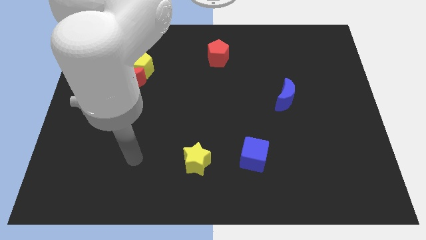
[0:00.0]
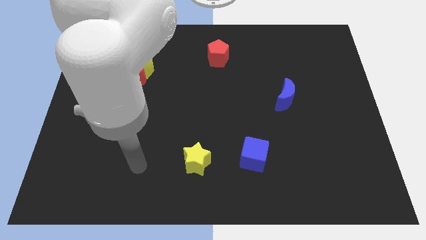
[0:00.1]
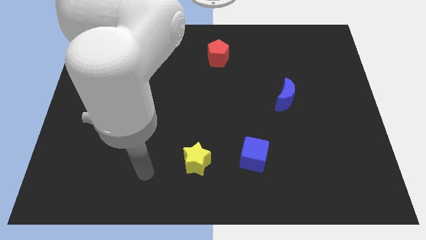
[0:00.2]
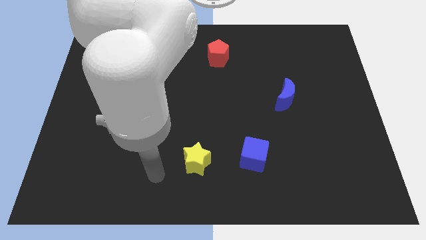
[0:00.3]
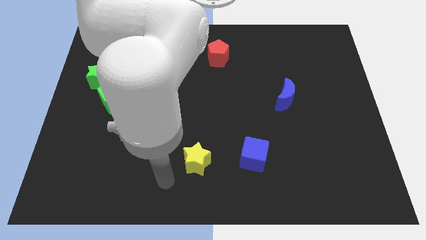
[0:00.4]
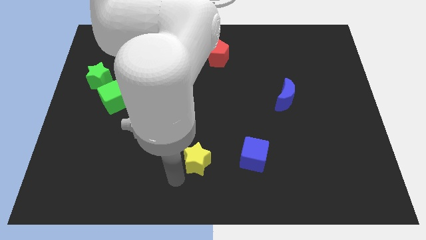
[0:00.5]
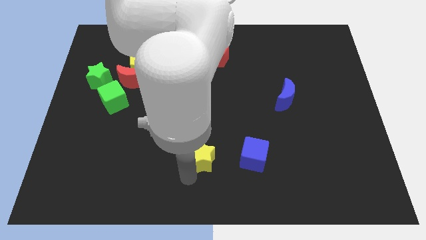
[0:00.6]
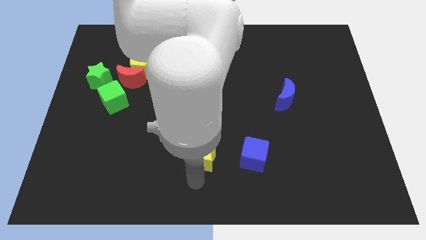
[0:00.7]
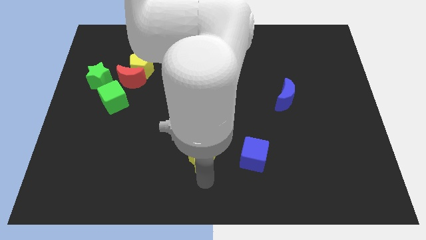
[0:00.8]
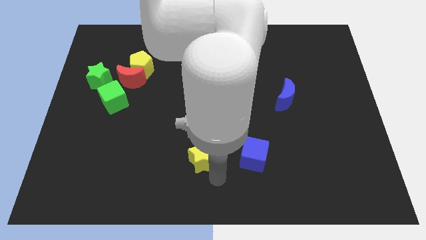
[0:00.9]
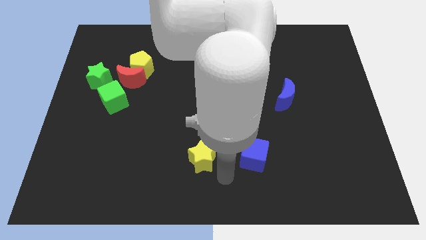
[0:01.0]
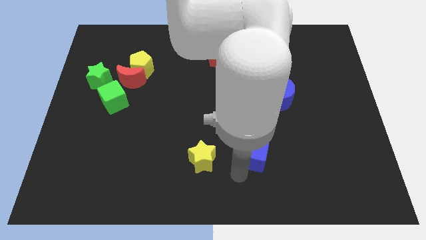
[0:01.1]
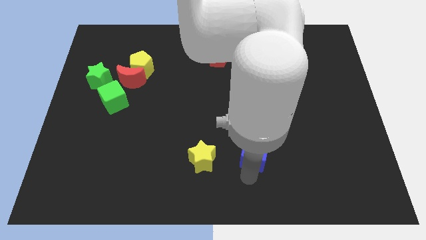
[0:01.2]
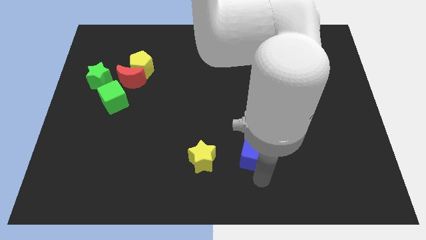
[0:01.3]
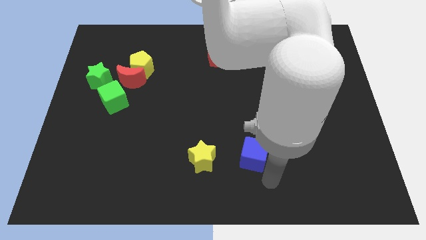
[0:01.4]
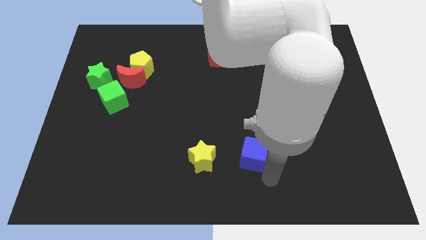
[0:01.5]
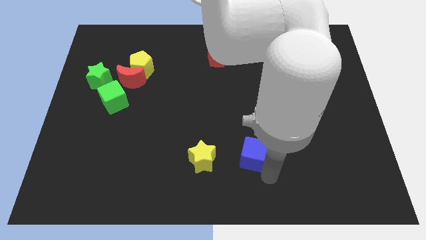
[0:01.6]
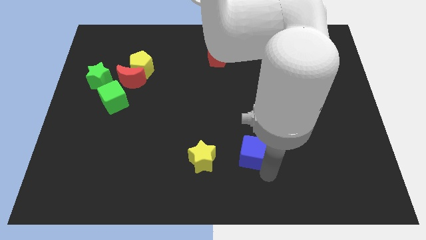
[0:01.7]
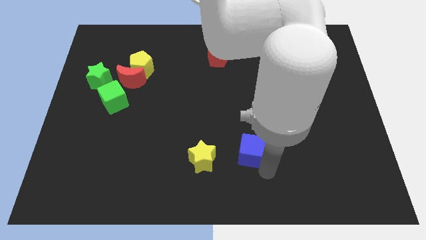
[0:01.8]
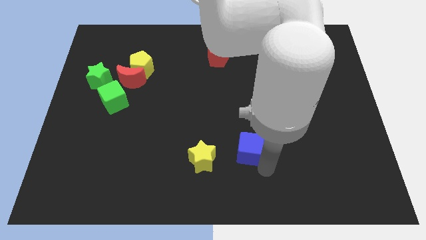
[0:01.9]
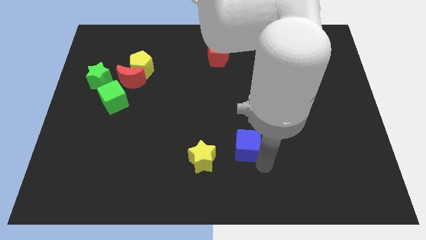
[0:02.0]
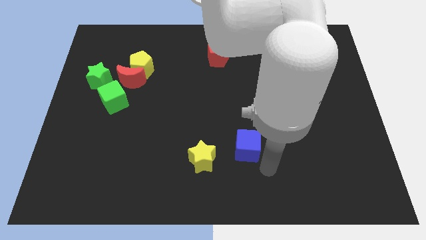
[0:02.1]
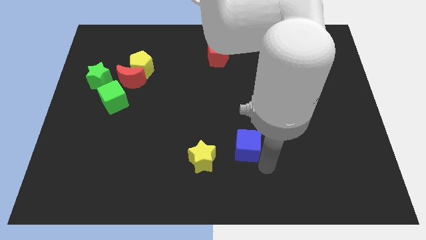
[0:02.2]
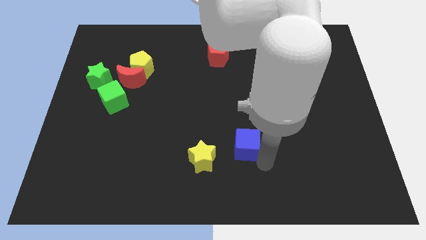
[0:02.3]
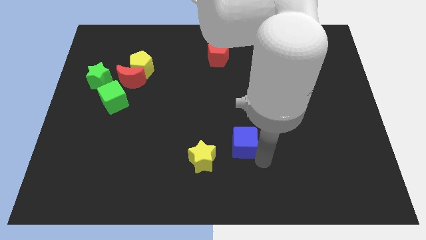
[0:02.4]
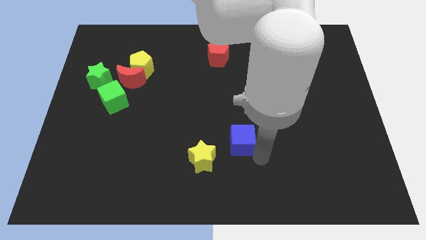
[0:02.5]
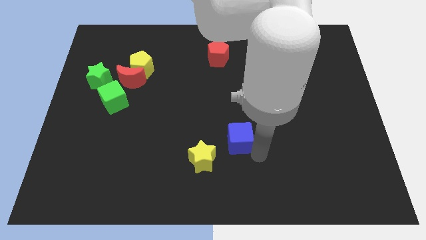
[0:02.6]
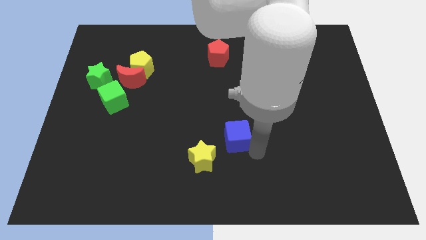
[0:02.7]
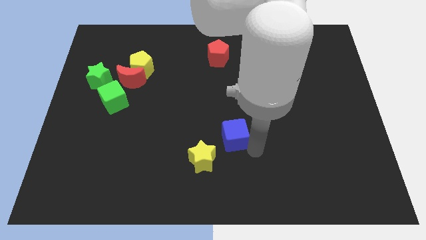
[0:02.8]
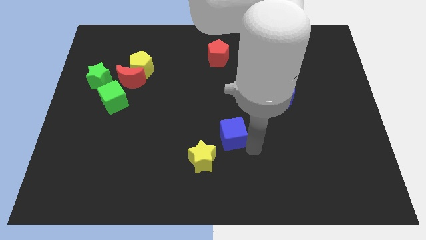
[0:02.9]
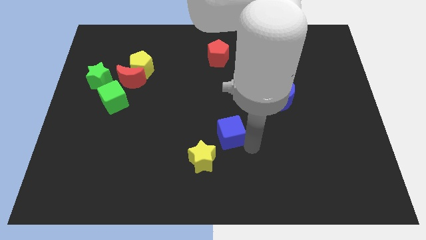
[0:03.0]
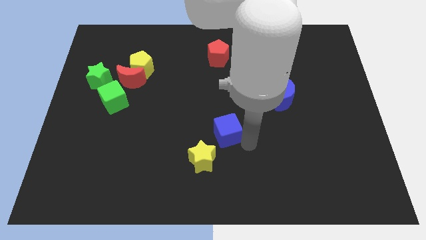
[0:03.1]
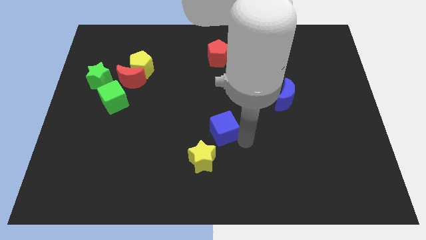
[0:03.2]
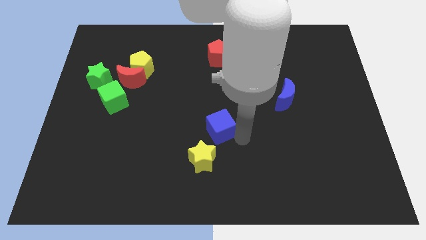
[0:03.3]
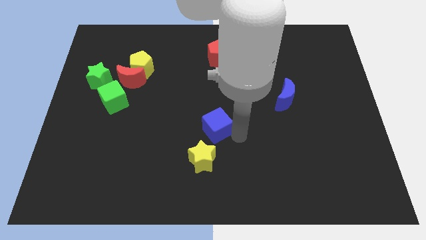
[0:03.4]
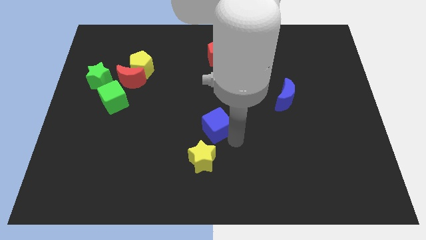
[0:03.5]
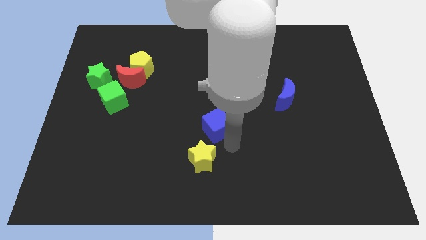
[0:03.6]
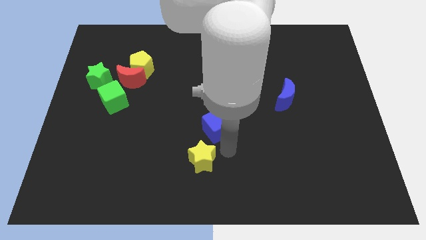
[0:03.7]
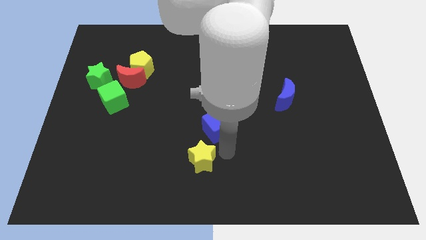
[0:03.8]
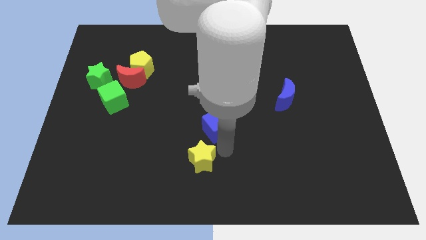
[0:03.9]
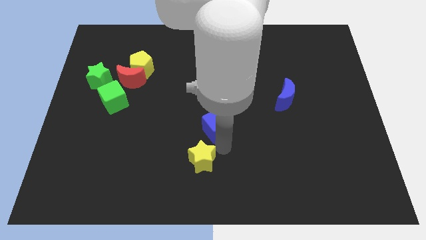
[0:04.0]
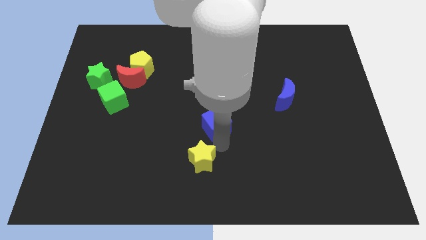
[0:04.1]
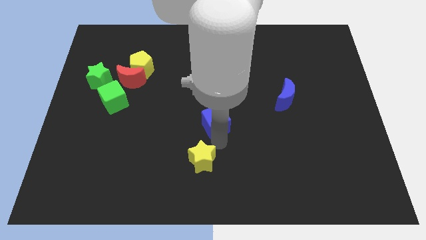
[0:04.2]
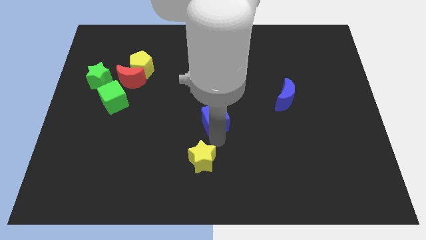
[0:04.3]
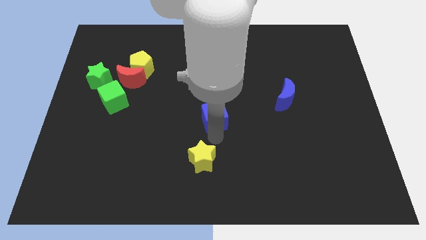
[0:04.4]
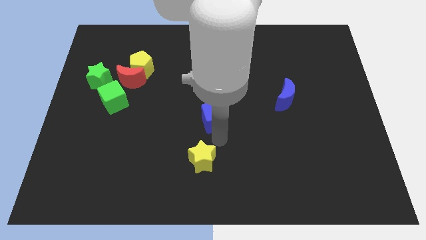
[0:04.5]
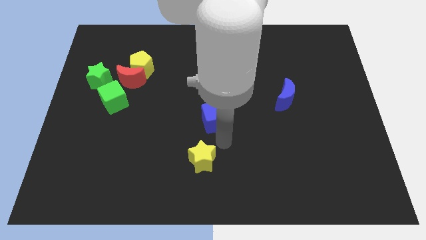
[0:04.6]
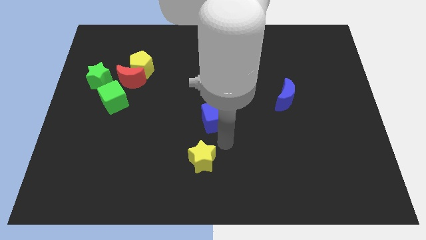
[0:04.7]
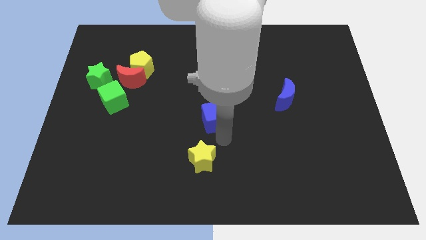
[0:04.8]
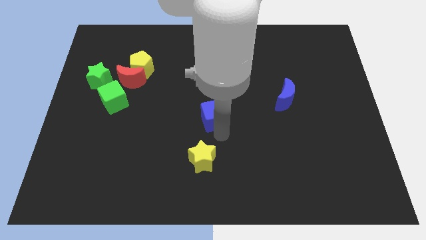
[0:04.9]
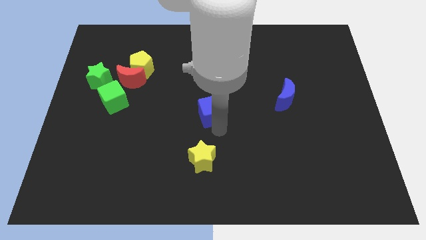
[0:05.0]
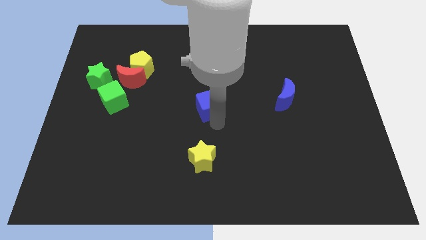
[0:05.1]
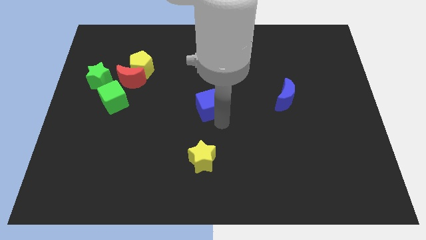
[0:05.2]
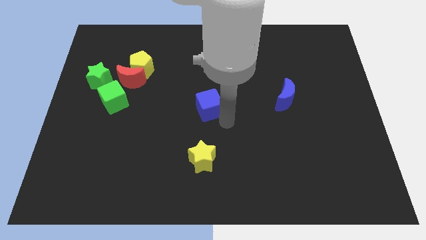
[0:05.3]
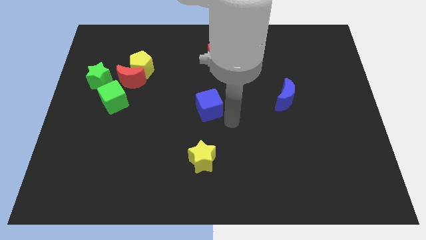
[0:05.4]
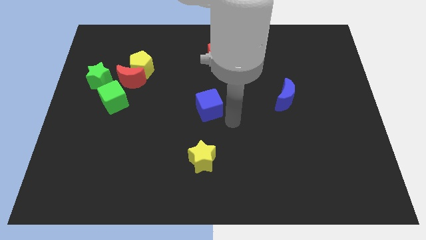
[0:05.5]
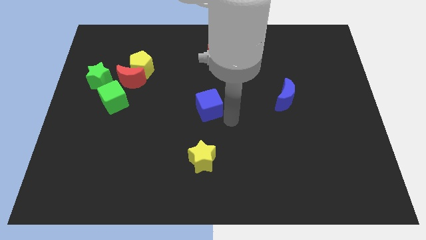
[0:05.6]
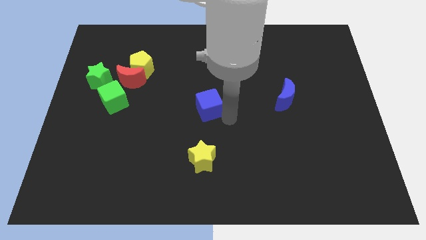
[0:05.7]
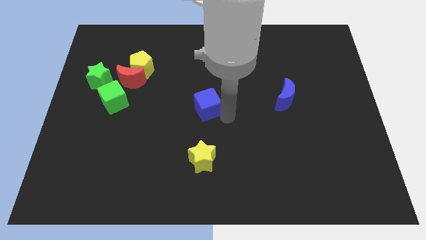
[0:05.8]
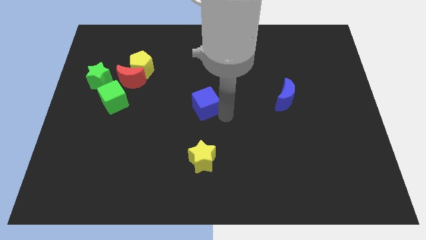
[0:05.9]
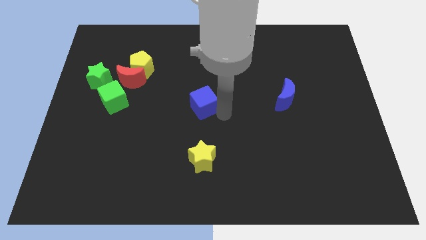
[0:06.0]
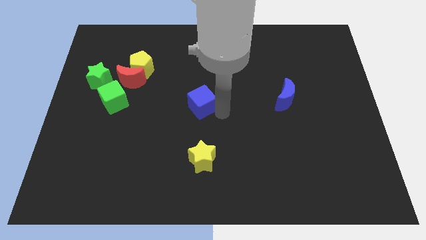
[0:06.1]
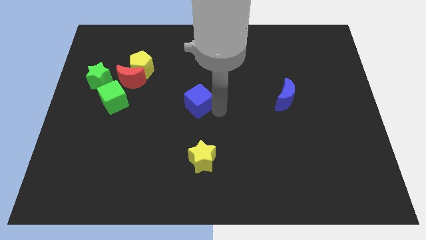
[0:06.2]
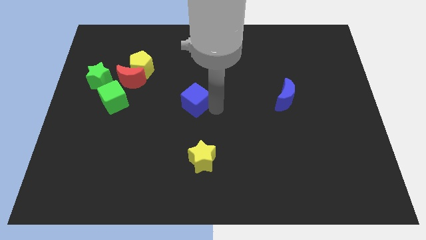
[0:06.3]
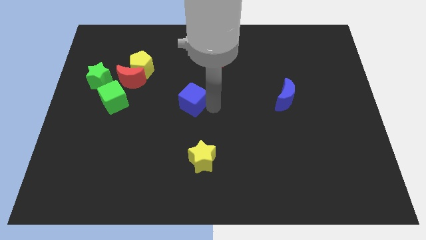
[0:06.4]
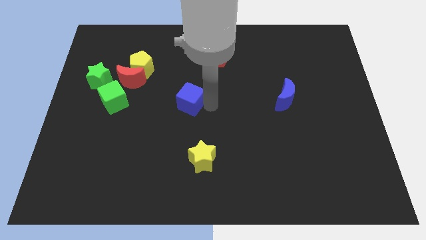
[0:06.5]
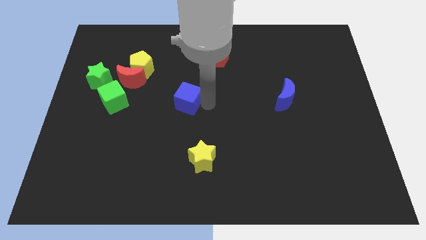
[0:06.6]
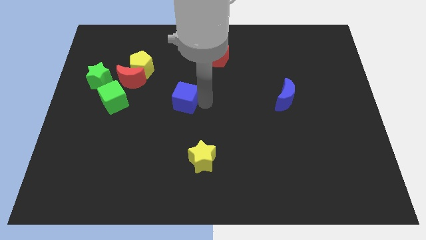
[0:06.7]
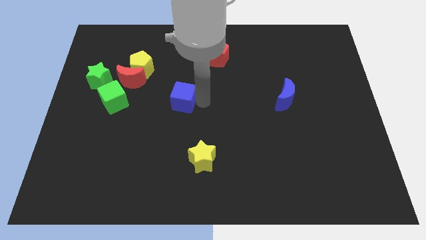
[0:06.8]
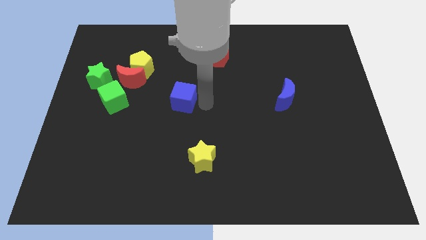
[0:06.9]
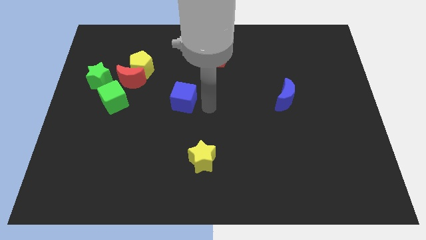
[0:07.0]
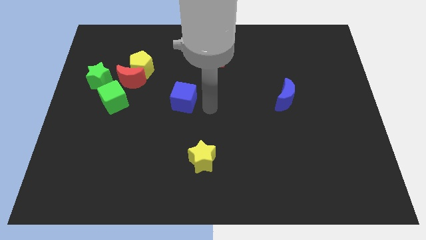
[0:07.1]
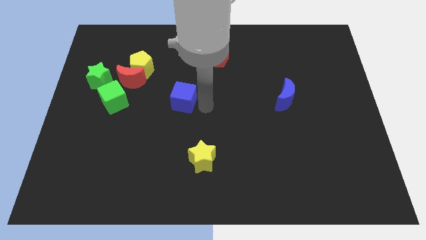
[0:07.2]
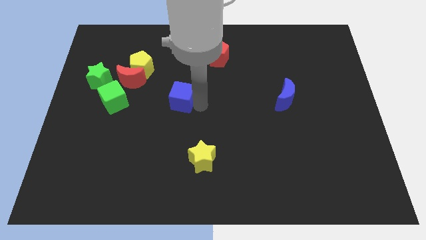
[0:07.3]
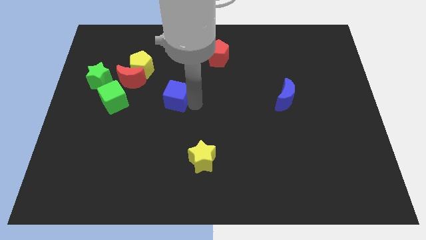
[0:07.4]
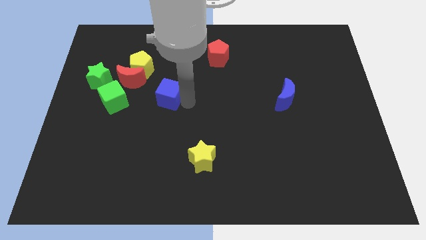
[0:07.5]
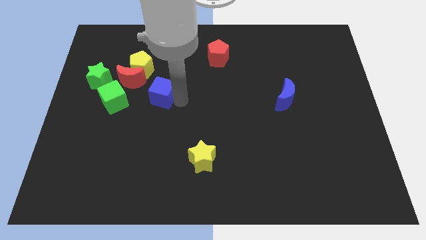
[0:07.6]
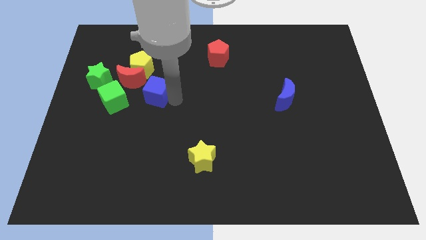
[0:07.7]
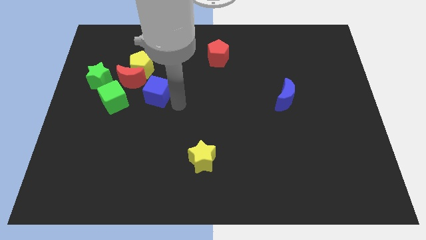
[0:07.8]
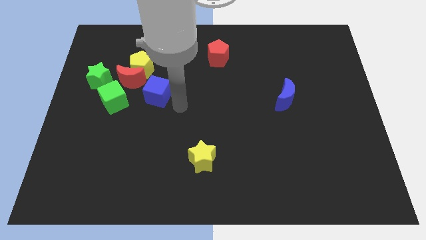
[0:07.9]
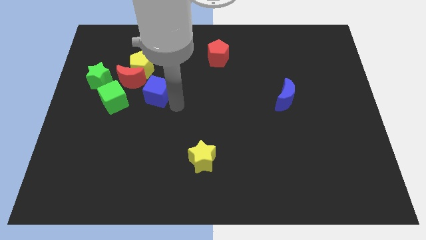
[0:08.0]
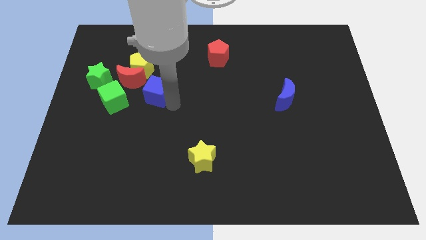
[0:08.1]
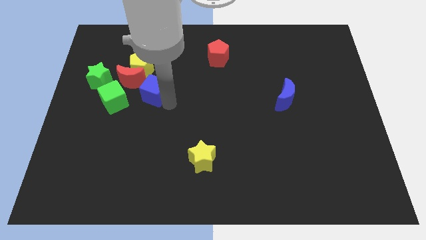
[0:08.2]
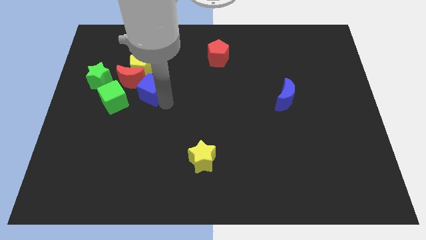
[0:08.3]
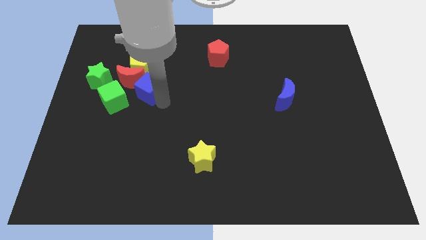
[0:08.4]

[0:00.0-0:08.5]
put the blue cube towards the red moon
